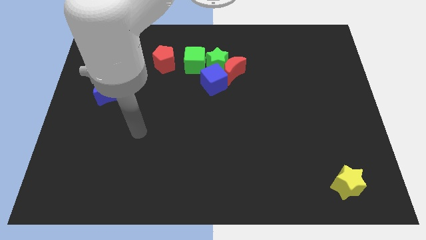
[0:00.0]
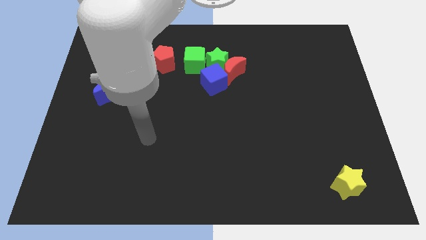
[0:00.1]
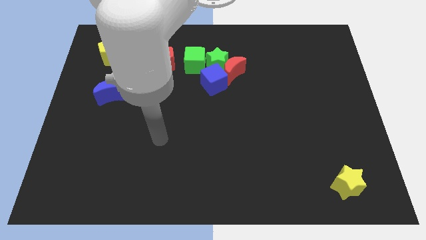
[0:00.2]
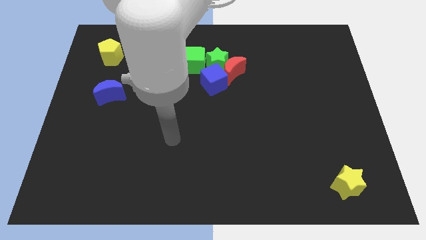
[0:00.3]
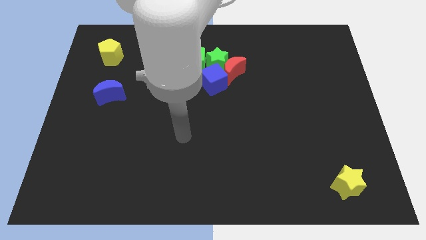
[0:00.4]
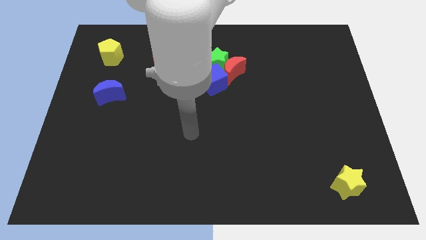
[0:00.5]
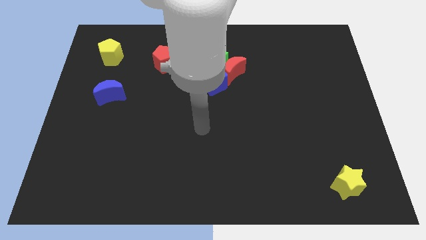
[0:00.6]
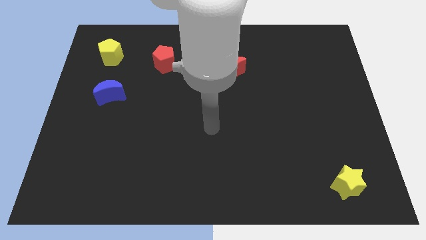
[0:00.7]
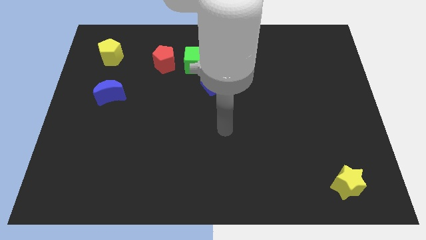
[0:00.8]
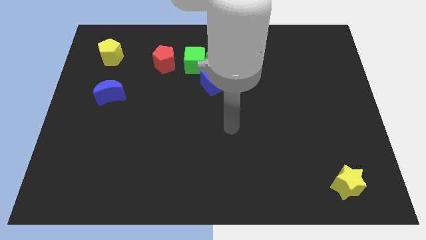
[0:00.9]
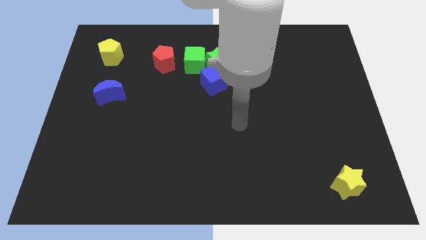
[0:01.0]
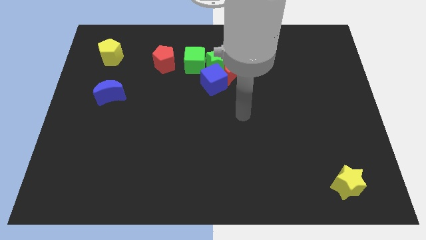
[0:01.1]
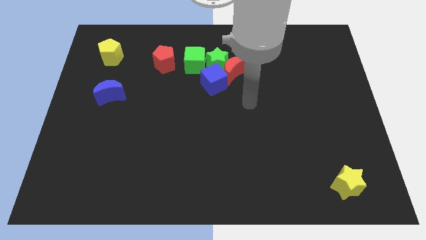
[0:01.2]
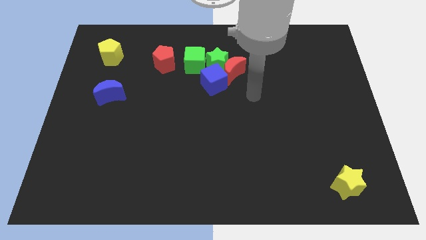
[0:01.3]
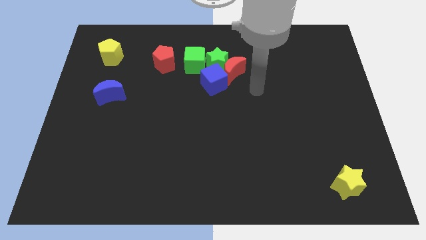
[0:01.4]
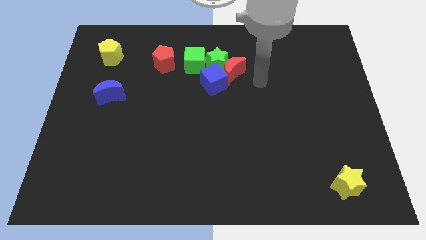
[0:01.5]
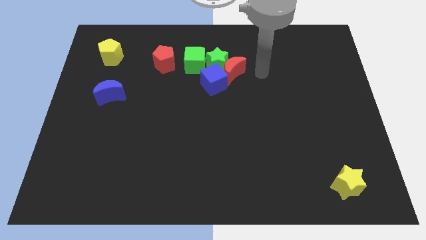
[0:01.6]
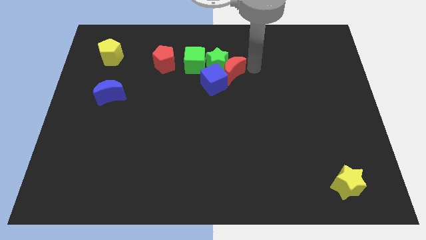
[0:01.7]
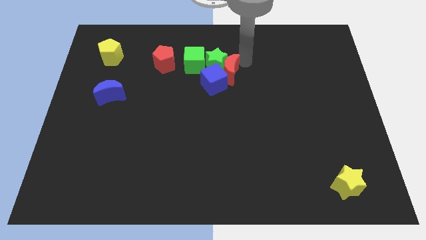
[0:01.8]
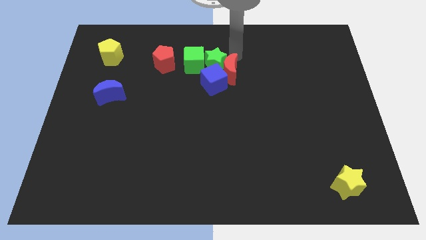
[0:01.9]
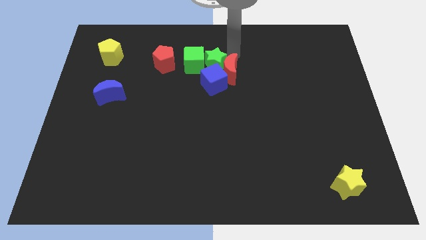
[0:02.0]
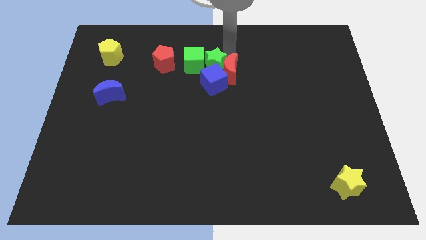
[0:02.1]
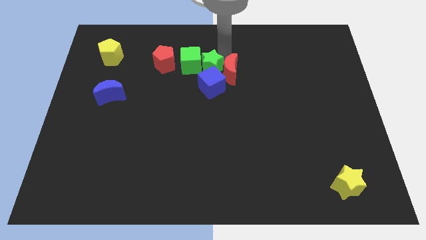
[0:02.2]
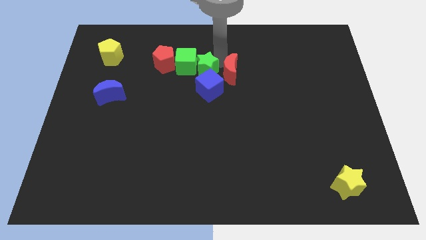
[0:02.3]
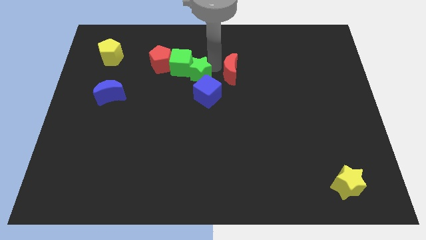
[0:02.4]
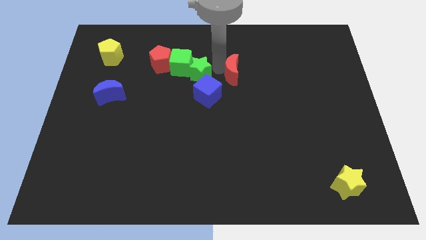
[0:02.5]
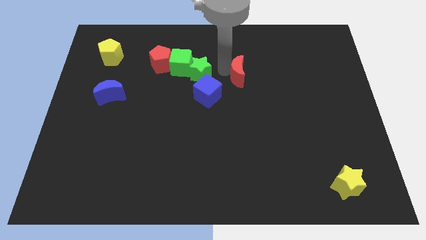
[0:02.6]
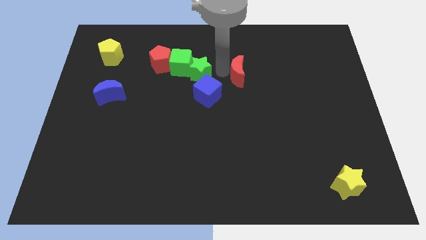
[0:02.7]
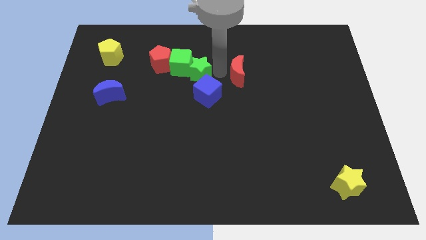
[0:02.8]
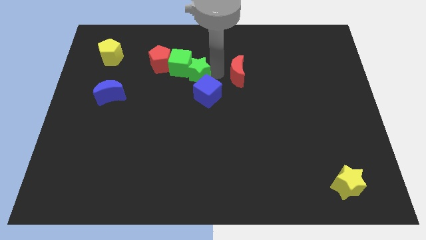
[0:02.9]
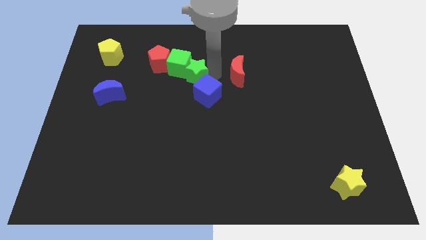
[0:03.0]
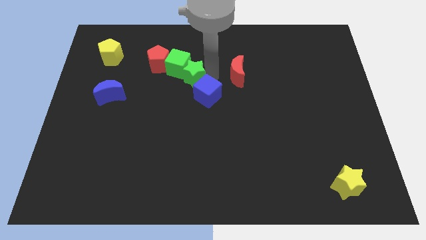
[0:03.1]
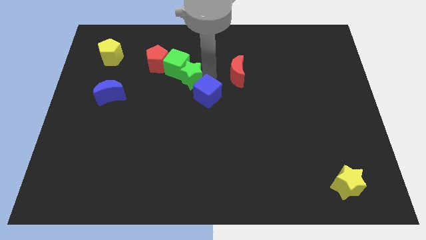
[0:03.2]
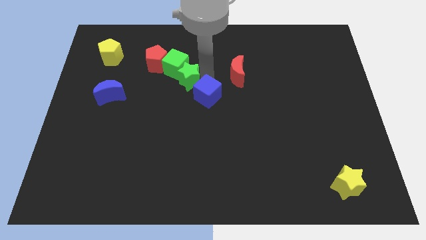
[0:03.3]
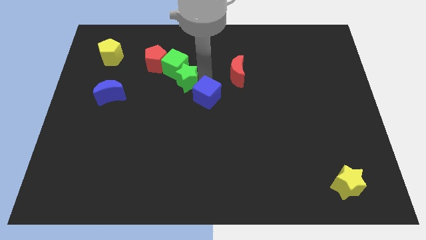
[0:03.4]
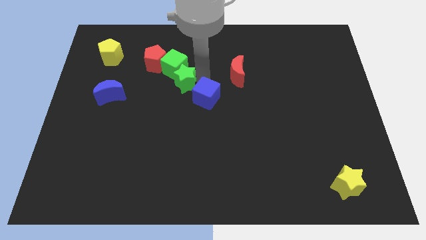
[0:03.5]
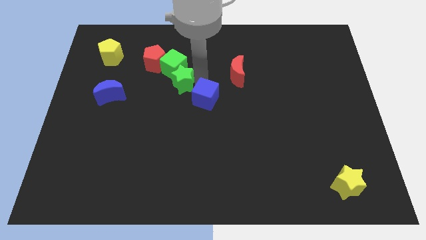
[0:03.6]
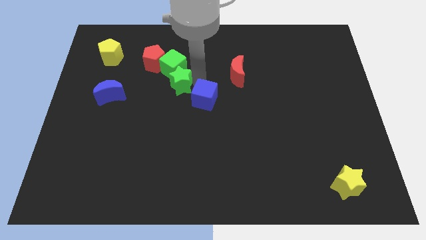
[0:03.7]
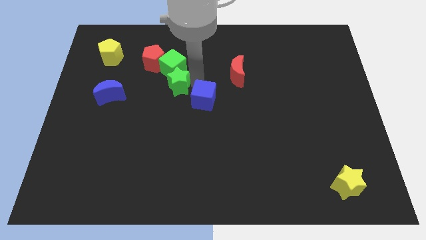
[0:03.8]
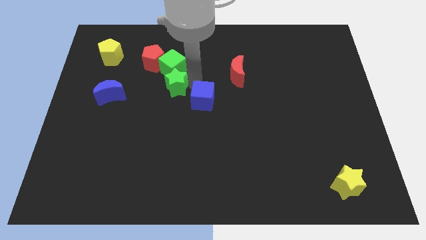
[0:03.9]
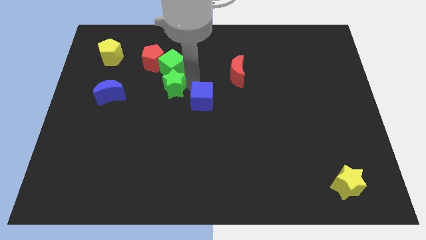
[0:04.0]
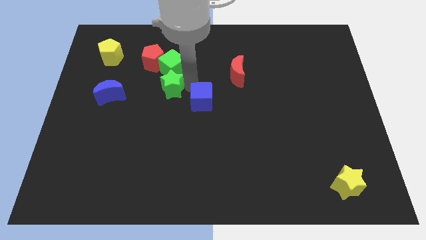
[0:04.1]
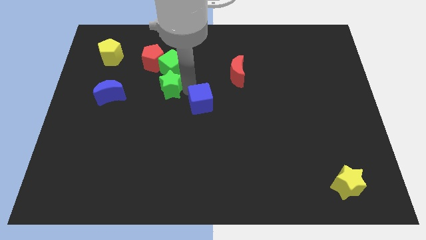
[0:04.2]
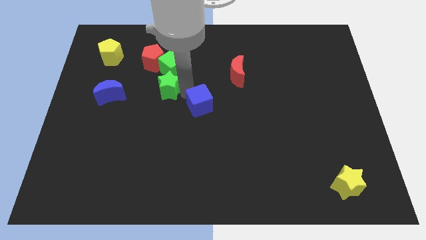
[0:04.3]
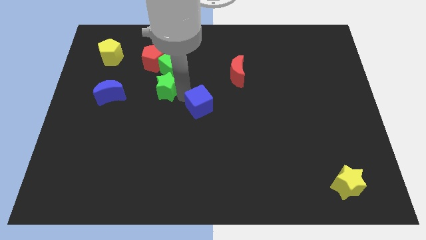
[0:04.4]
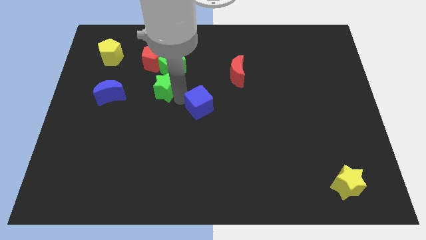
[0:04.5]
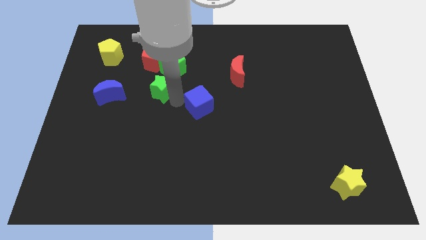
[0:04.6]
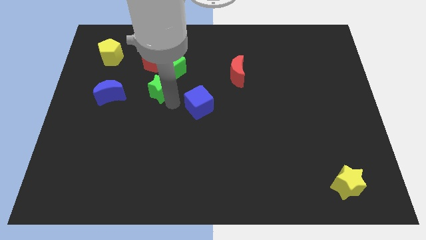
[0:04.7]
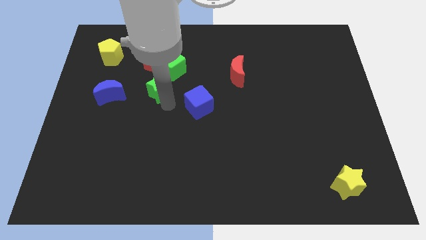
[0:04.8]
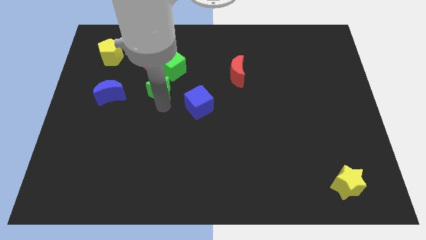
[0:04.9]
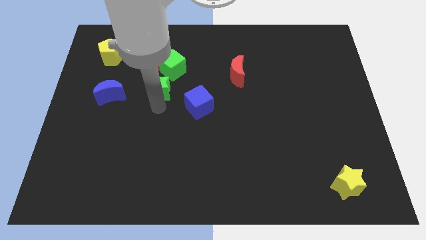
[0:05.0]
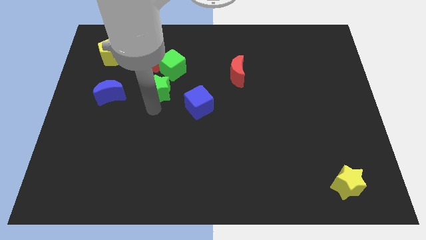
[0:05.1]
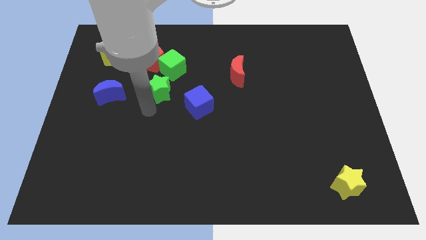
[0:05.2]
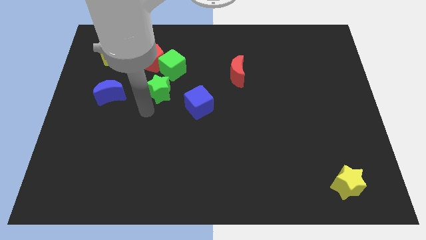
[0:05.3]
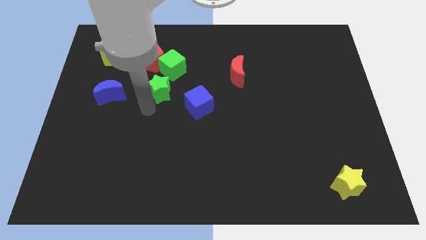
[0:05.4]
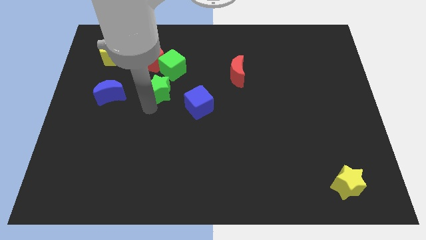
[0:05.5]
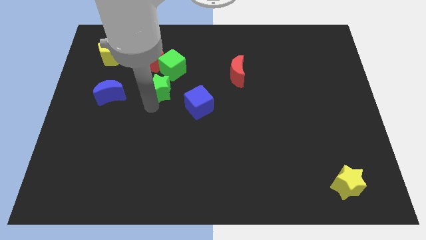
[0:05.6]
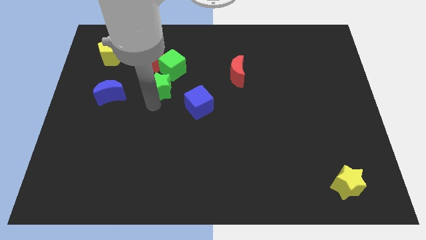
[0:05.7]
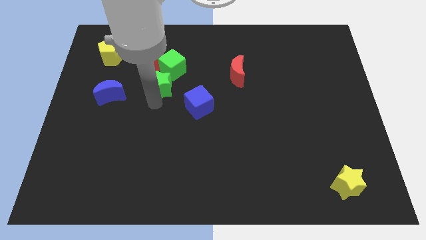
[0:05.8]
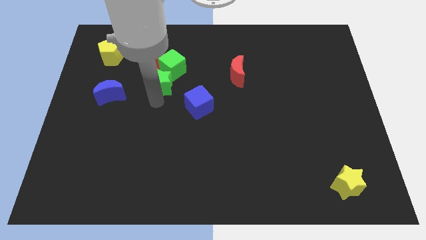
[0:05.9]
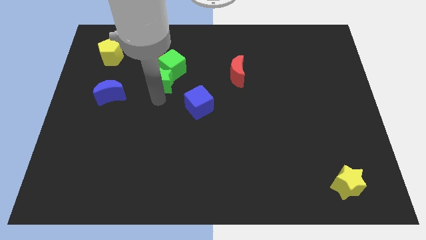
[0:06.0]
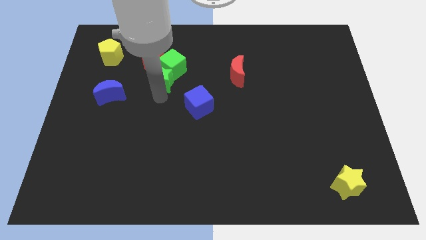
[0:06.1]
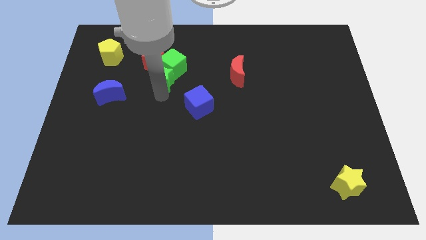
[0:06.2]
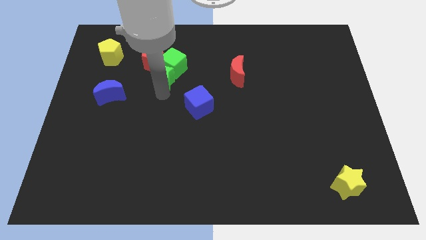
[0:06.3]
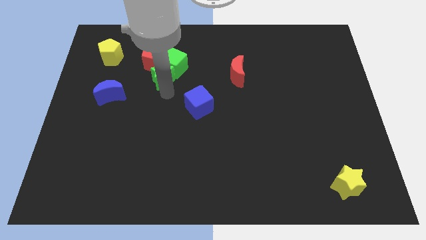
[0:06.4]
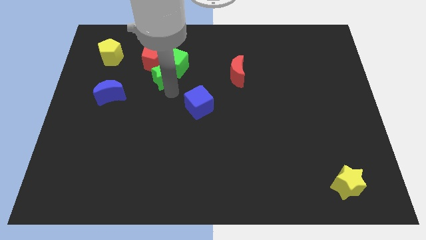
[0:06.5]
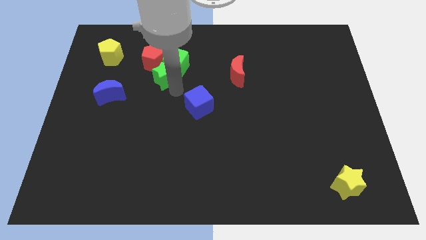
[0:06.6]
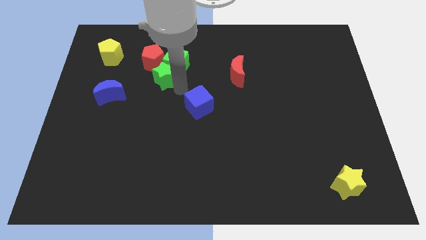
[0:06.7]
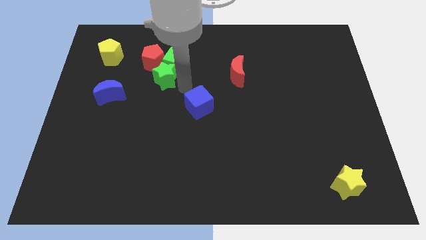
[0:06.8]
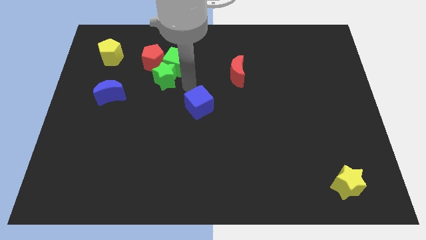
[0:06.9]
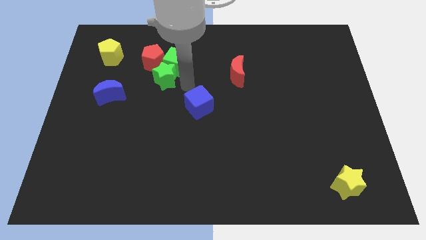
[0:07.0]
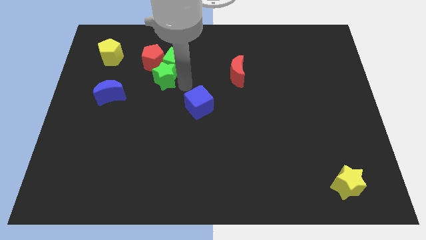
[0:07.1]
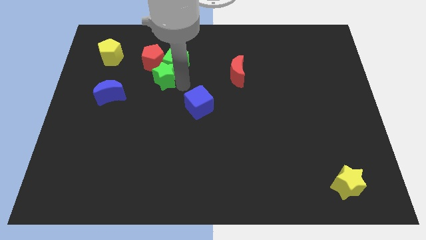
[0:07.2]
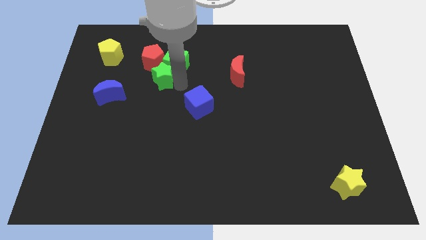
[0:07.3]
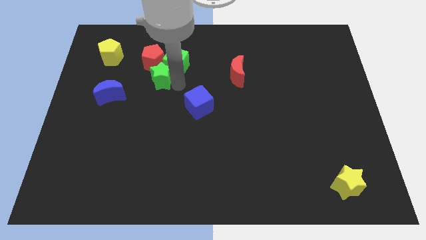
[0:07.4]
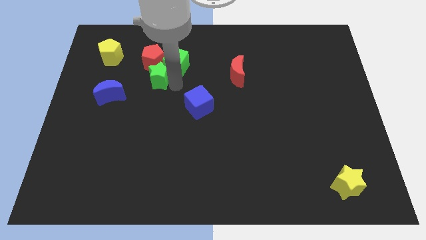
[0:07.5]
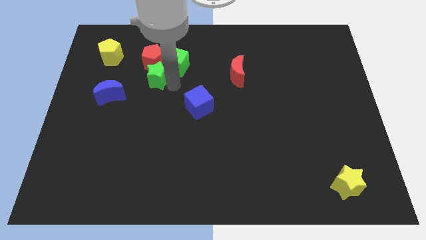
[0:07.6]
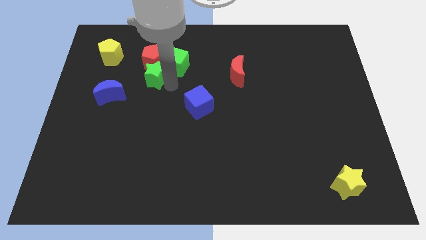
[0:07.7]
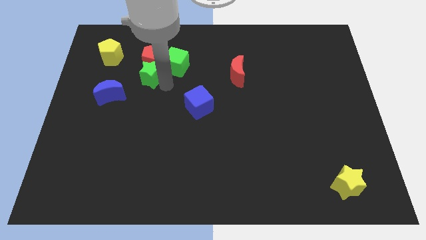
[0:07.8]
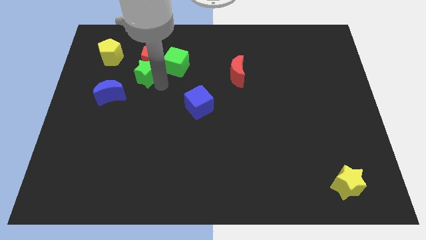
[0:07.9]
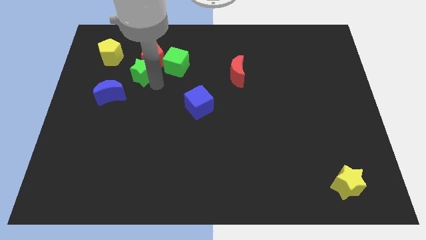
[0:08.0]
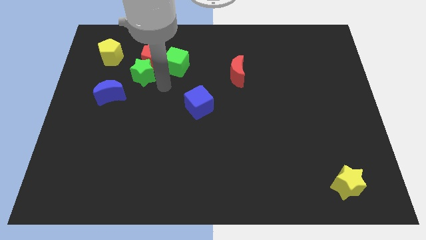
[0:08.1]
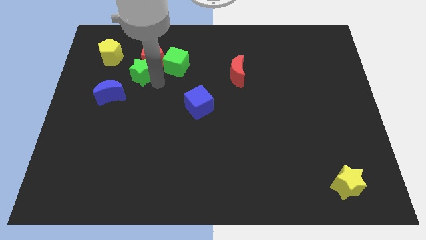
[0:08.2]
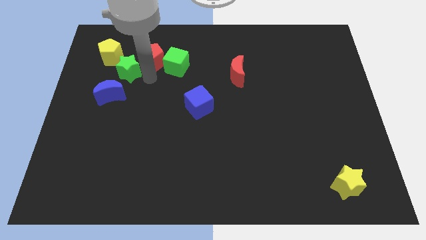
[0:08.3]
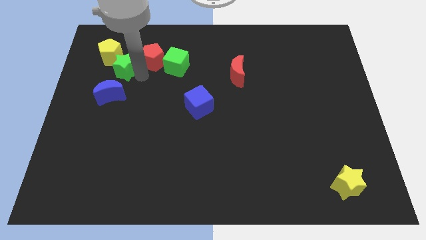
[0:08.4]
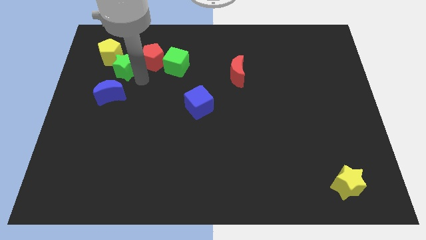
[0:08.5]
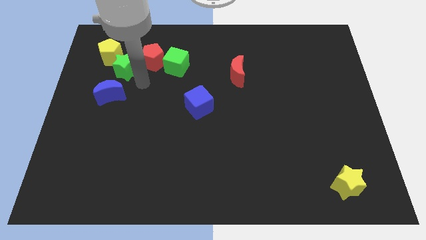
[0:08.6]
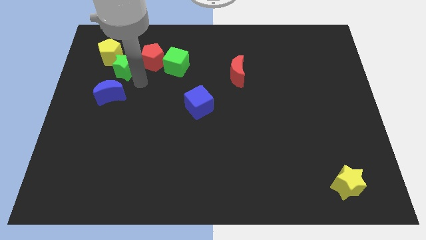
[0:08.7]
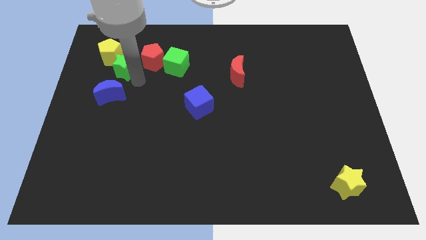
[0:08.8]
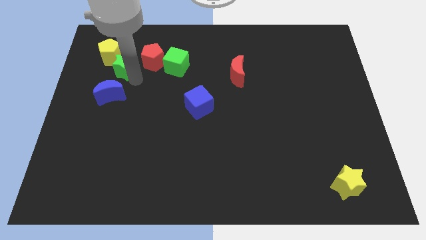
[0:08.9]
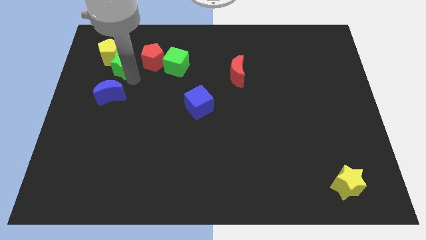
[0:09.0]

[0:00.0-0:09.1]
move the green star towards the yellow pentagon
